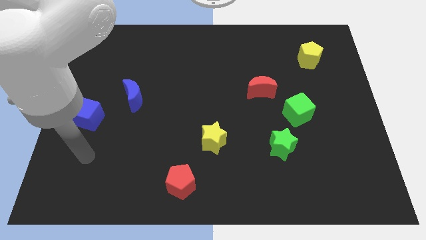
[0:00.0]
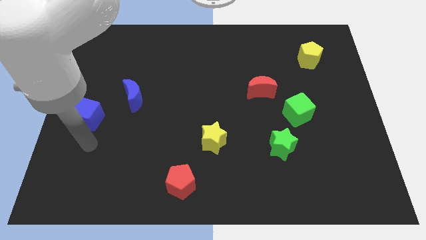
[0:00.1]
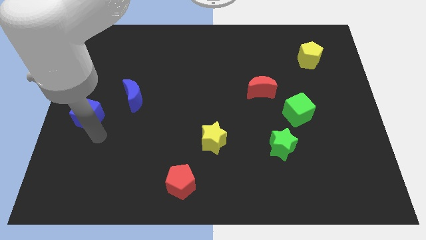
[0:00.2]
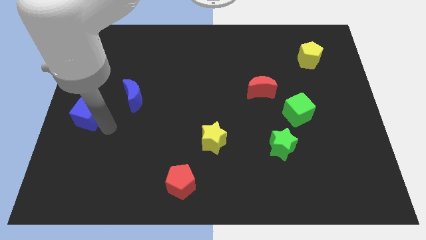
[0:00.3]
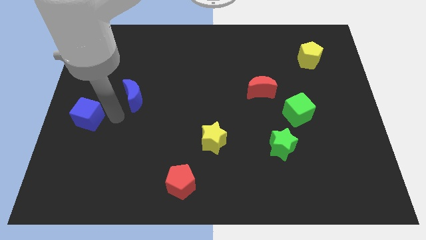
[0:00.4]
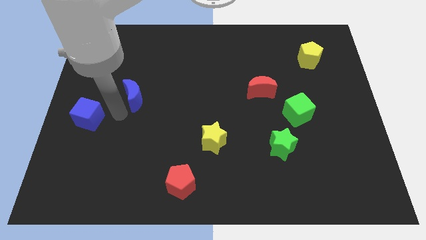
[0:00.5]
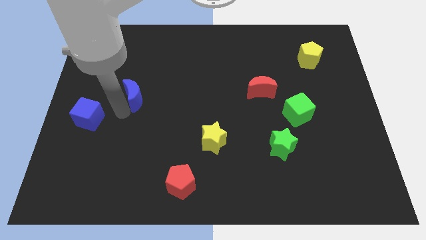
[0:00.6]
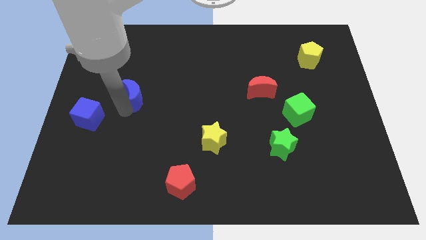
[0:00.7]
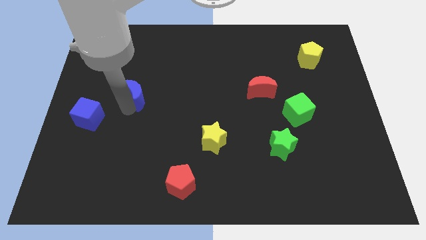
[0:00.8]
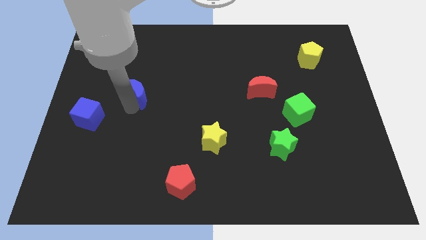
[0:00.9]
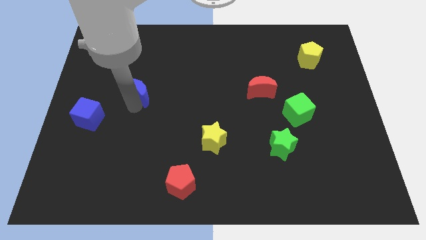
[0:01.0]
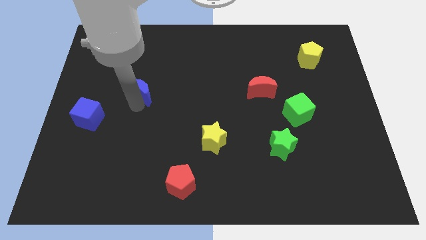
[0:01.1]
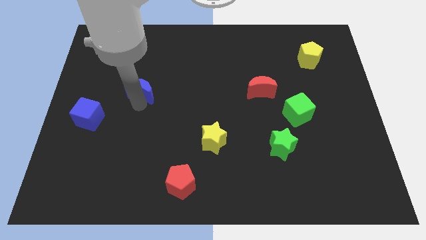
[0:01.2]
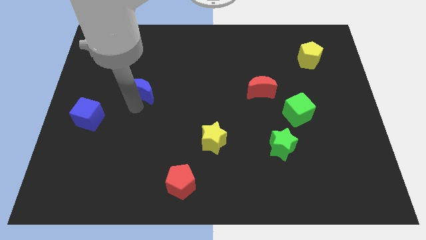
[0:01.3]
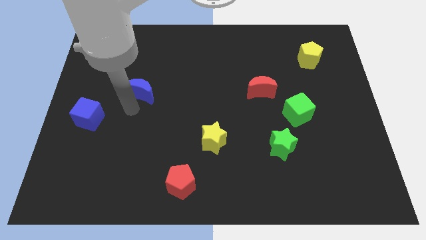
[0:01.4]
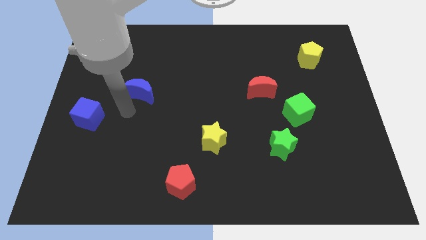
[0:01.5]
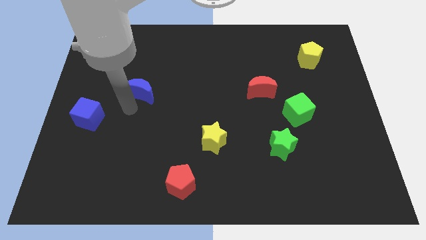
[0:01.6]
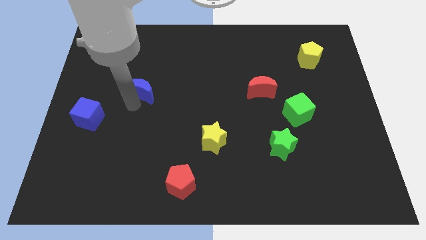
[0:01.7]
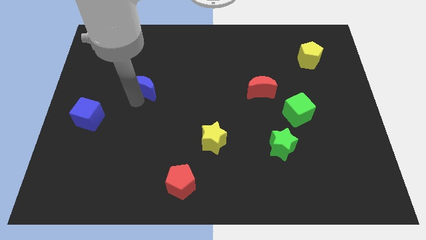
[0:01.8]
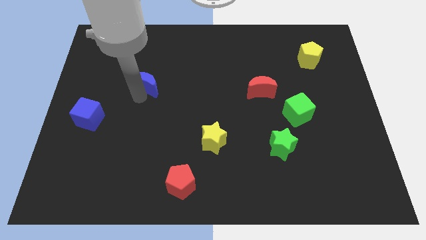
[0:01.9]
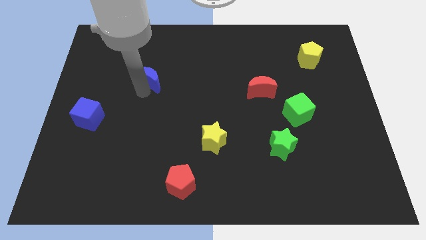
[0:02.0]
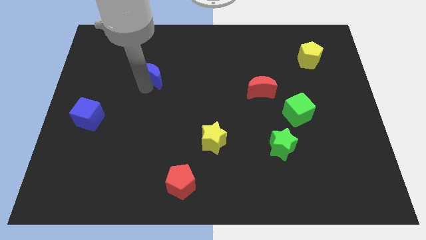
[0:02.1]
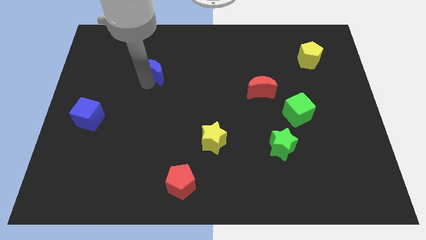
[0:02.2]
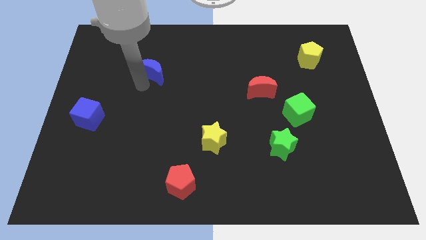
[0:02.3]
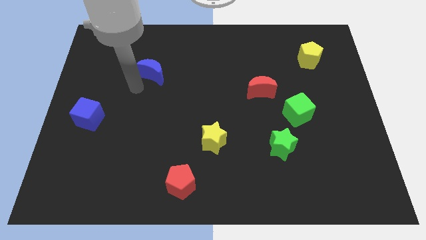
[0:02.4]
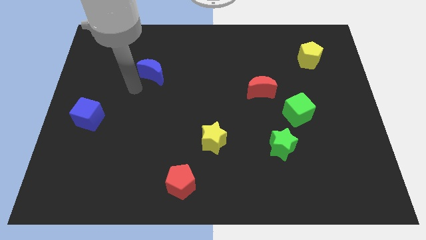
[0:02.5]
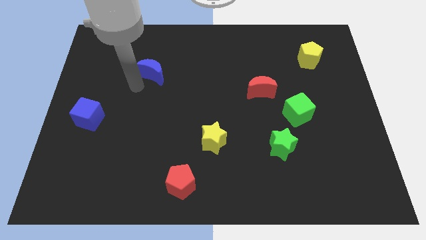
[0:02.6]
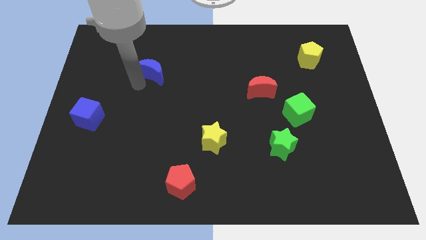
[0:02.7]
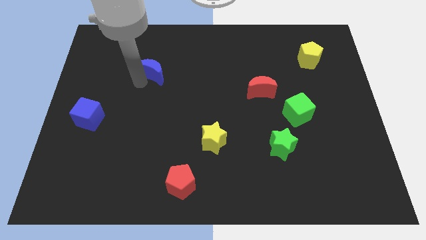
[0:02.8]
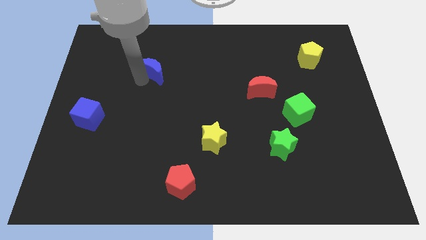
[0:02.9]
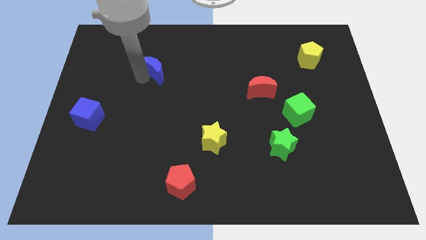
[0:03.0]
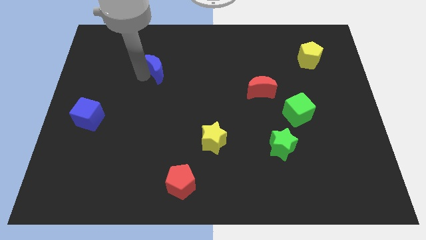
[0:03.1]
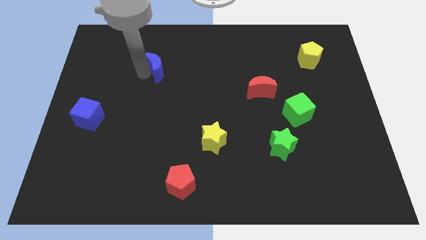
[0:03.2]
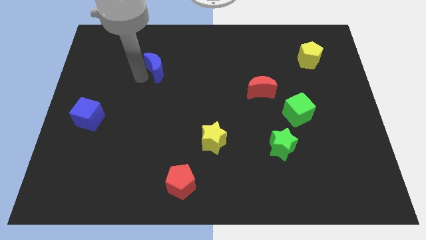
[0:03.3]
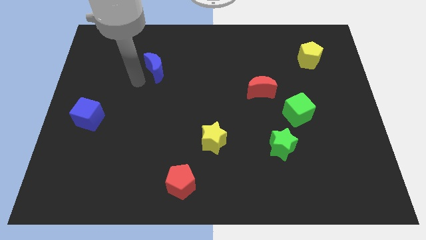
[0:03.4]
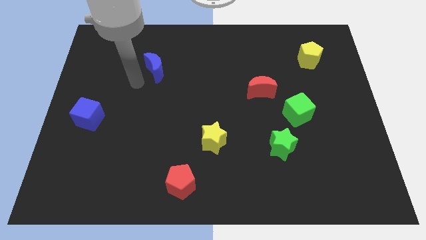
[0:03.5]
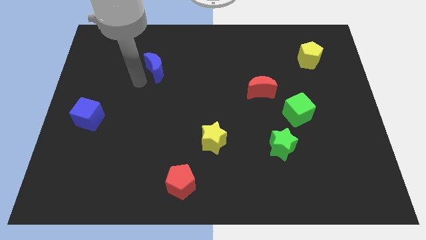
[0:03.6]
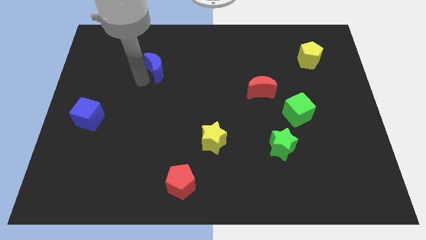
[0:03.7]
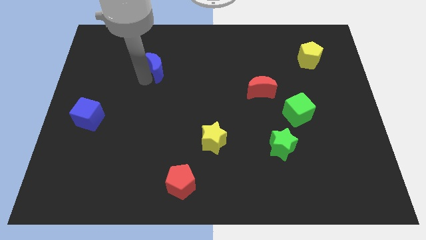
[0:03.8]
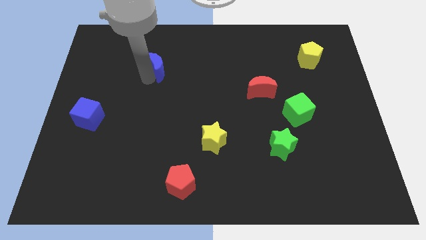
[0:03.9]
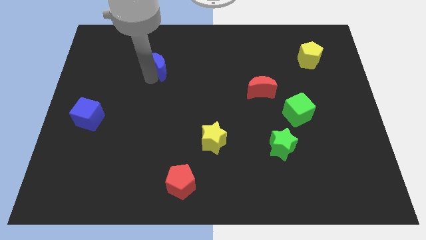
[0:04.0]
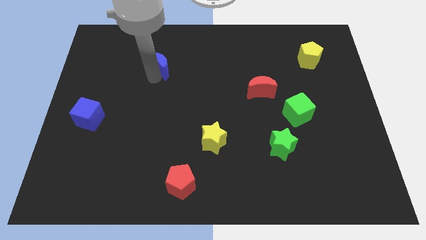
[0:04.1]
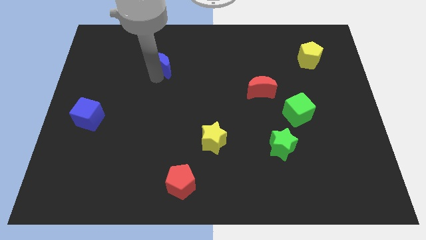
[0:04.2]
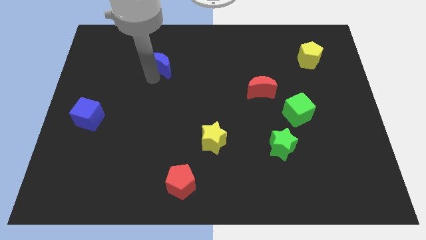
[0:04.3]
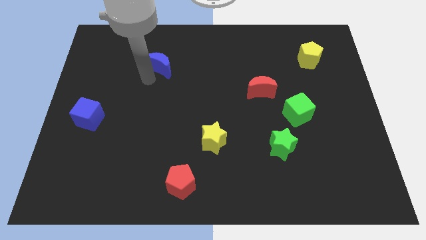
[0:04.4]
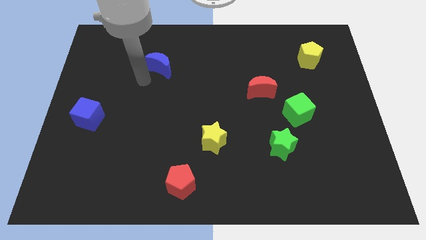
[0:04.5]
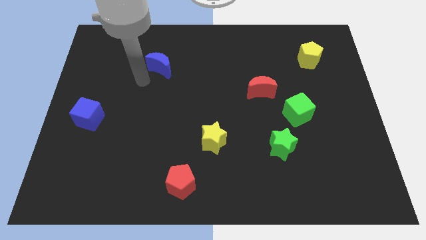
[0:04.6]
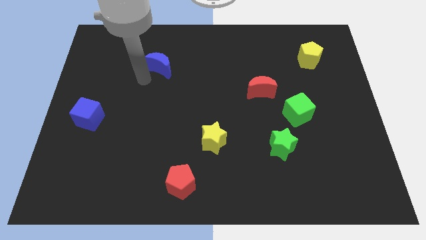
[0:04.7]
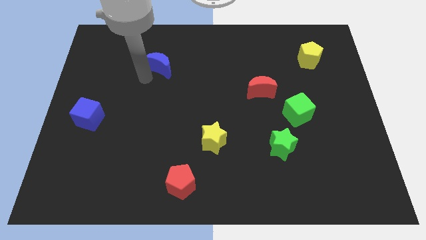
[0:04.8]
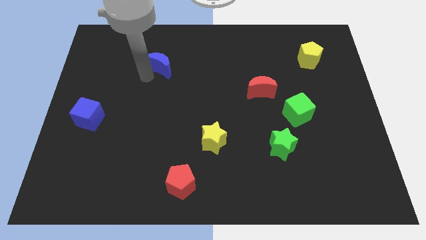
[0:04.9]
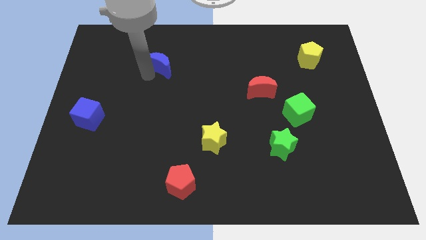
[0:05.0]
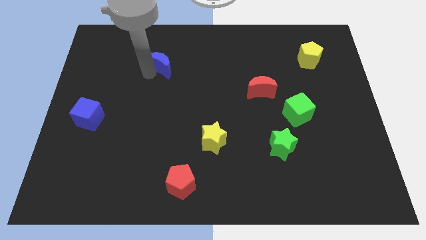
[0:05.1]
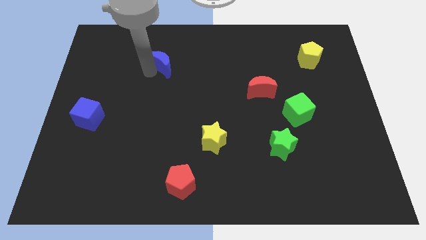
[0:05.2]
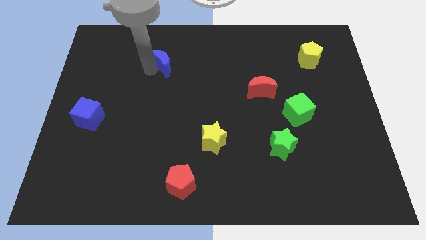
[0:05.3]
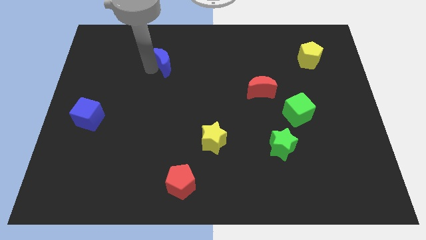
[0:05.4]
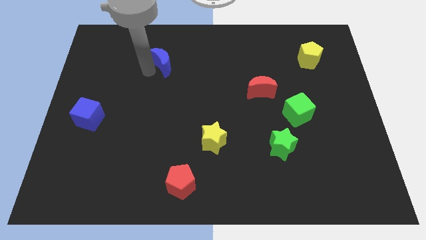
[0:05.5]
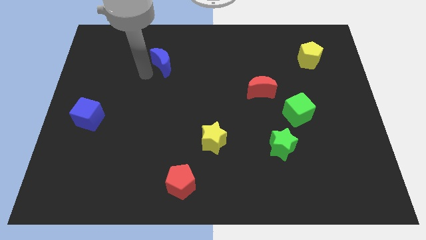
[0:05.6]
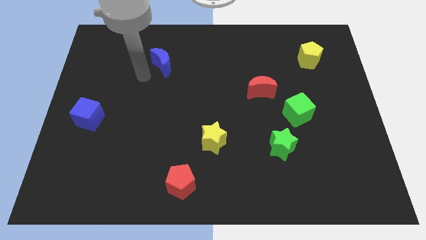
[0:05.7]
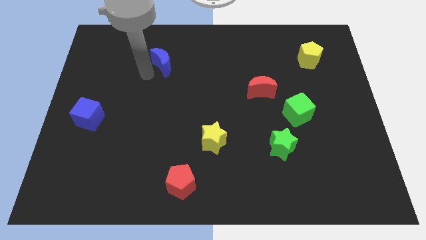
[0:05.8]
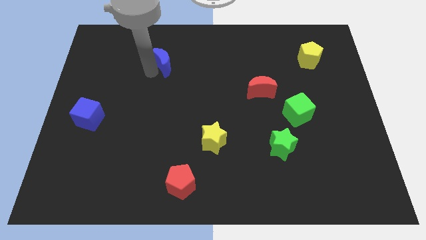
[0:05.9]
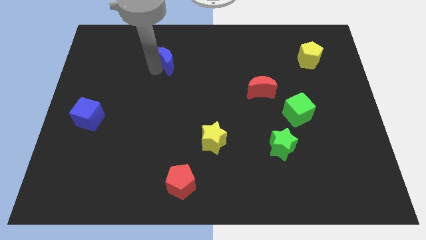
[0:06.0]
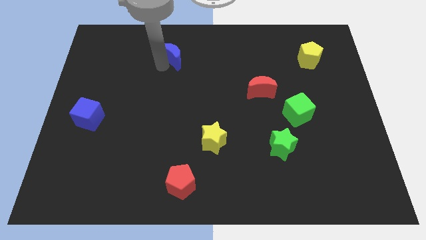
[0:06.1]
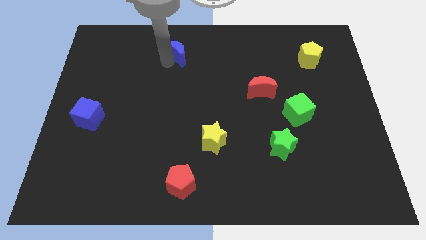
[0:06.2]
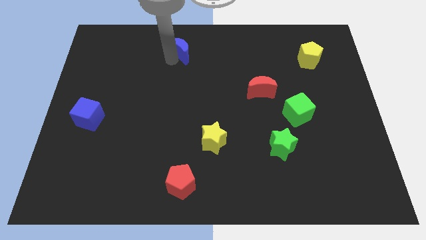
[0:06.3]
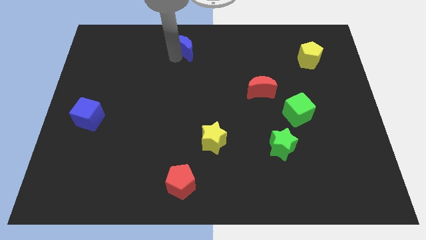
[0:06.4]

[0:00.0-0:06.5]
push the blue moon to the top

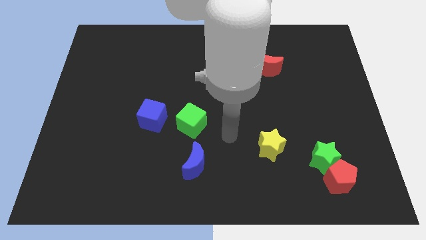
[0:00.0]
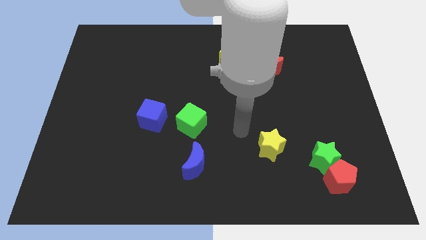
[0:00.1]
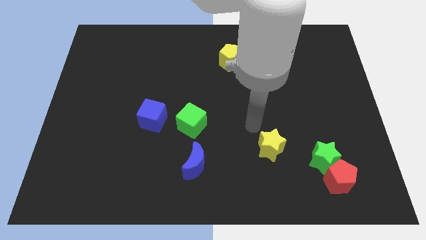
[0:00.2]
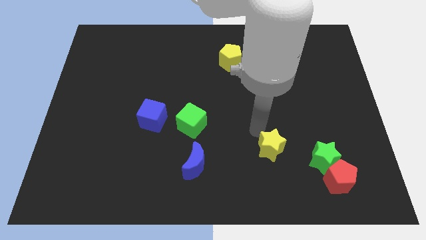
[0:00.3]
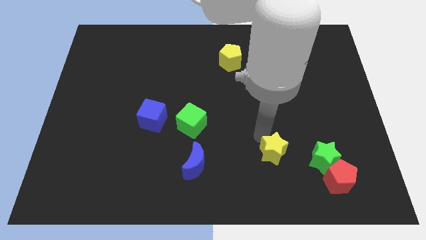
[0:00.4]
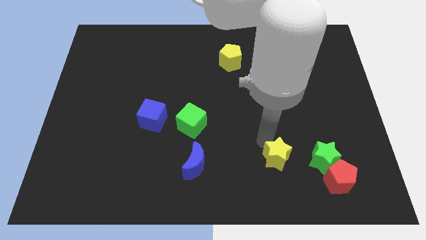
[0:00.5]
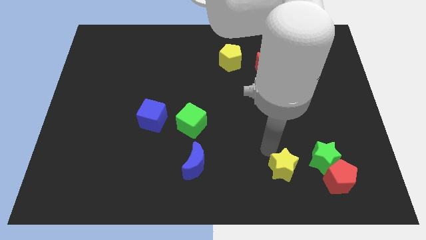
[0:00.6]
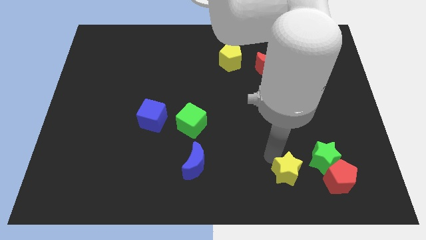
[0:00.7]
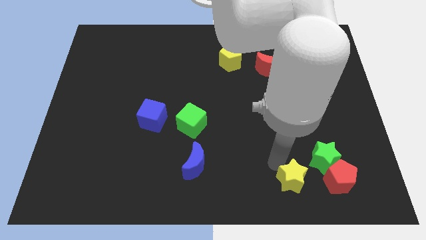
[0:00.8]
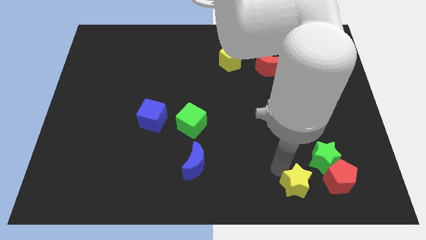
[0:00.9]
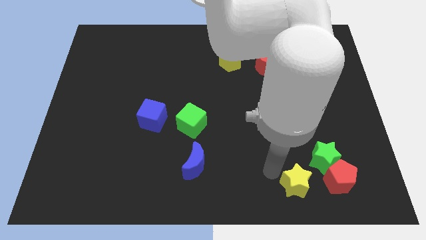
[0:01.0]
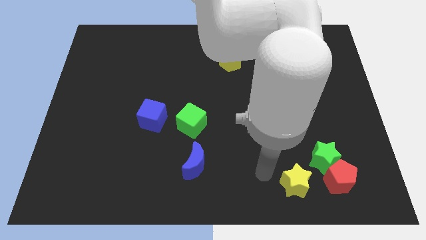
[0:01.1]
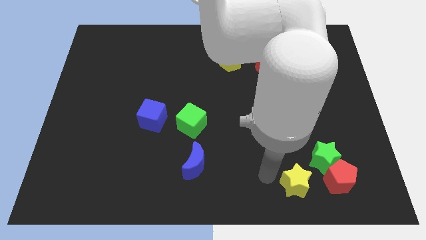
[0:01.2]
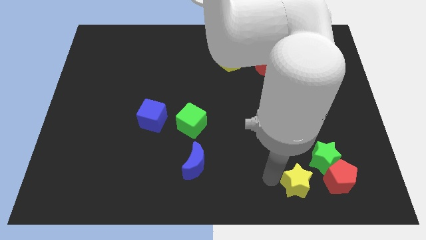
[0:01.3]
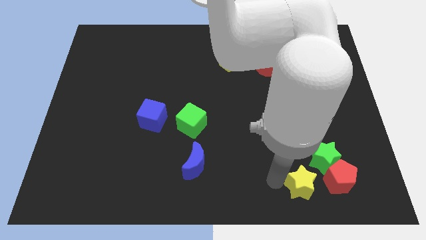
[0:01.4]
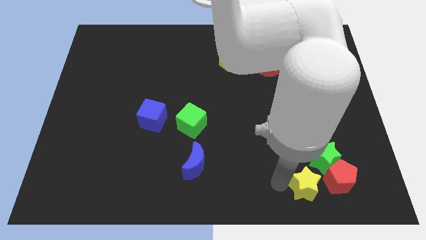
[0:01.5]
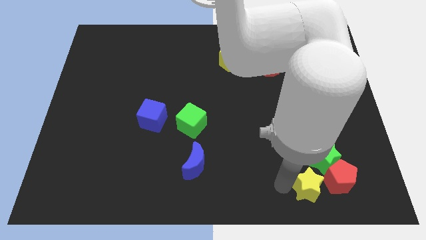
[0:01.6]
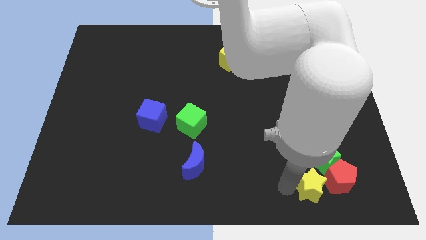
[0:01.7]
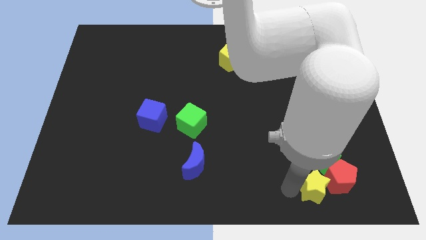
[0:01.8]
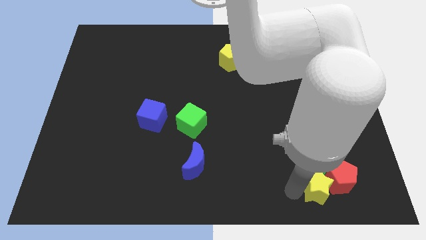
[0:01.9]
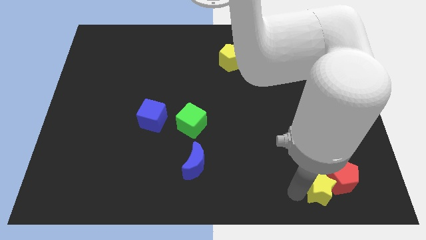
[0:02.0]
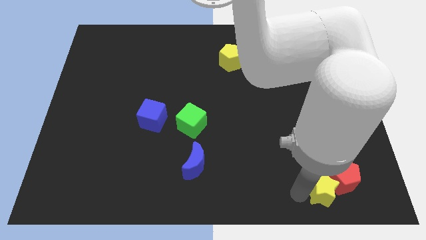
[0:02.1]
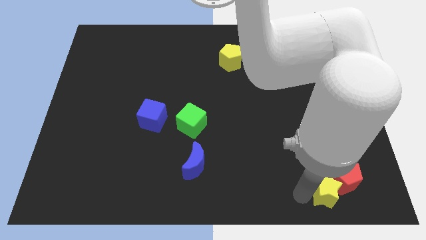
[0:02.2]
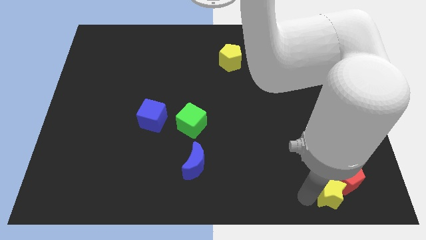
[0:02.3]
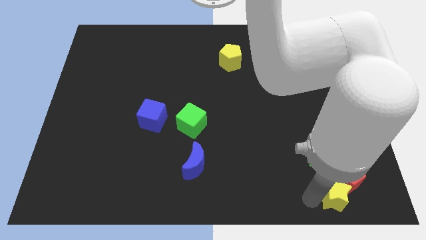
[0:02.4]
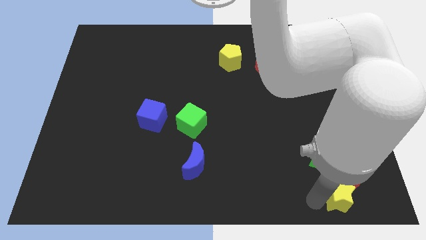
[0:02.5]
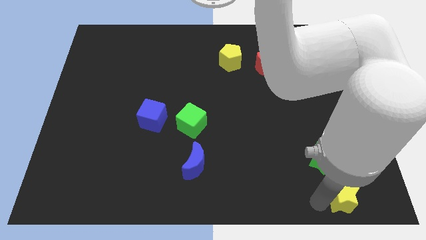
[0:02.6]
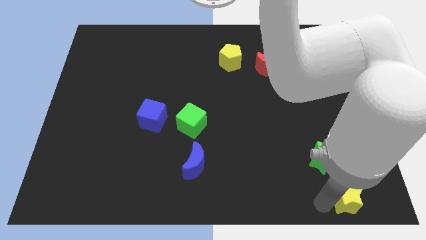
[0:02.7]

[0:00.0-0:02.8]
push the yellow star to the bottom right of the board
